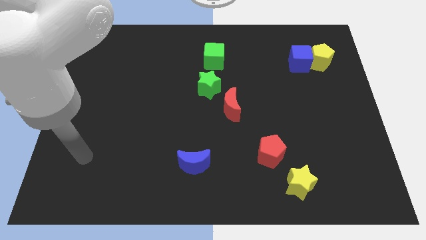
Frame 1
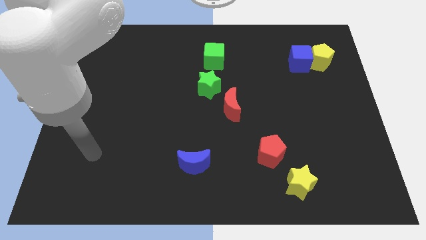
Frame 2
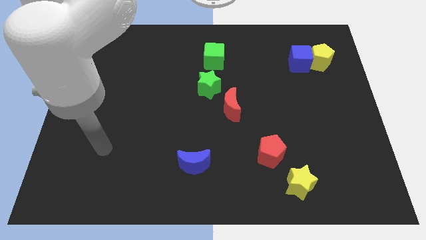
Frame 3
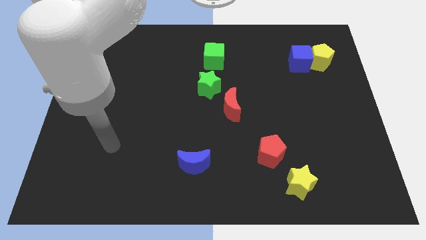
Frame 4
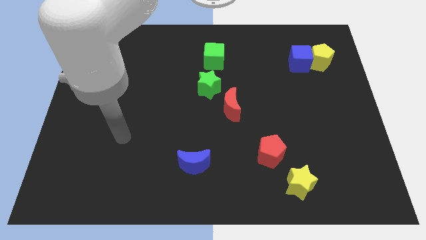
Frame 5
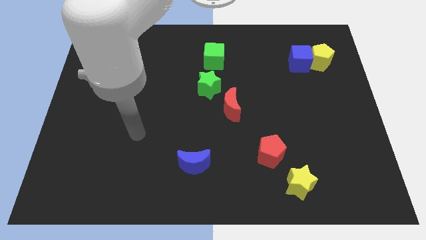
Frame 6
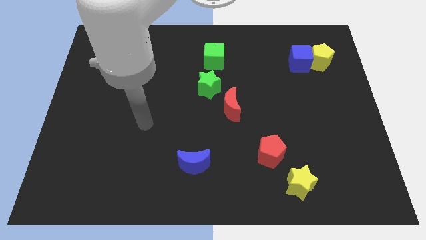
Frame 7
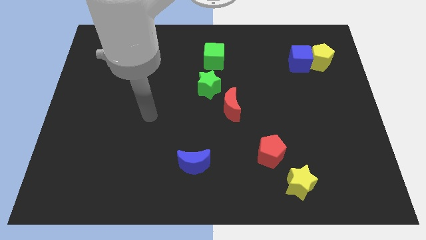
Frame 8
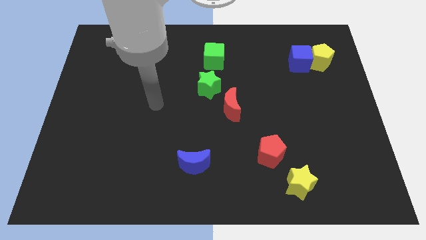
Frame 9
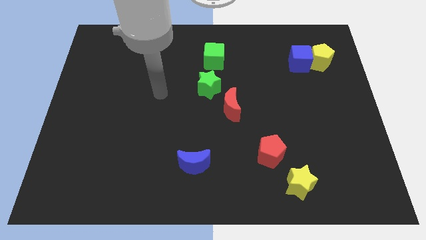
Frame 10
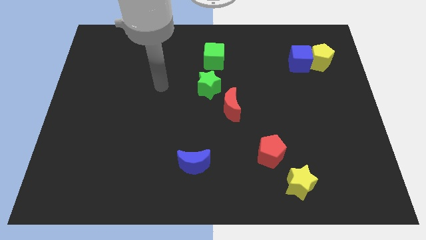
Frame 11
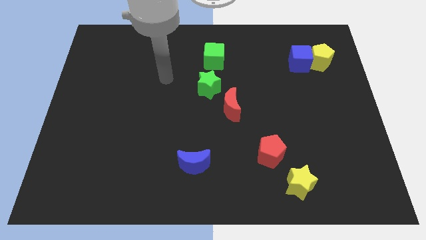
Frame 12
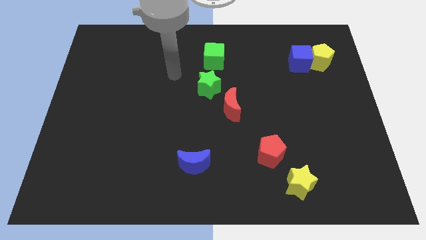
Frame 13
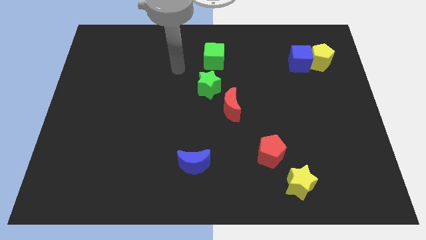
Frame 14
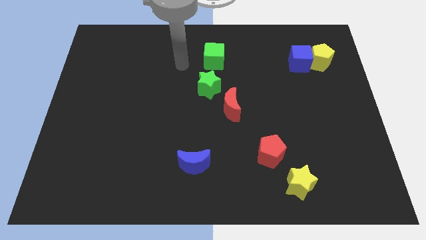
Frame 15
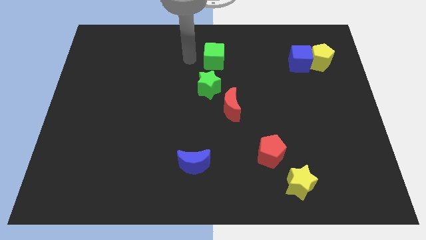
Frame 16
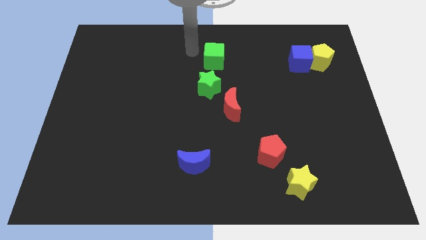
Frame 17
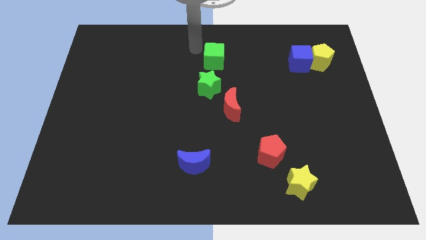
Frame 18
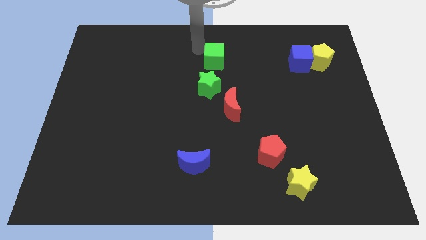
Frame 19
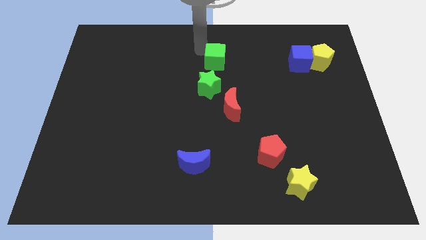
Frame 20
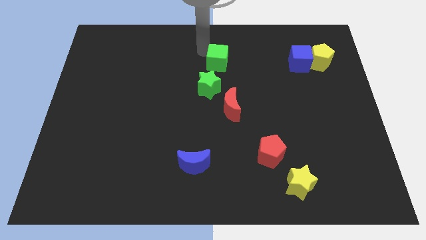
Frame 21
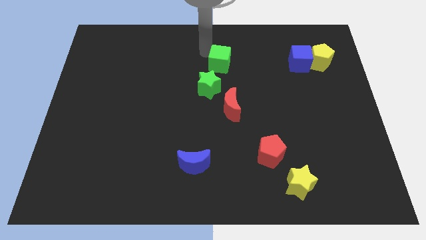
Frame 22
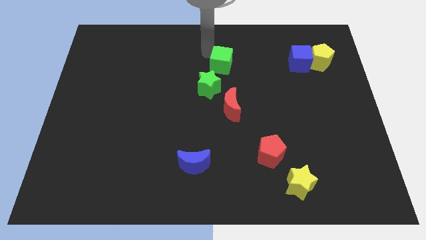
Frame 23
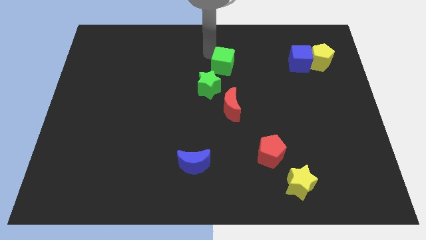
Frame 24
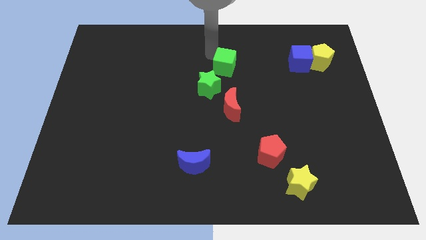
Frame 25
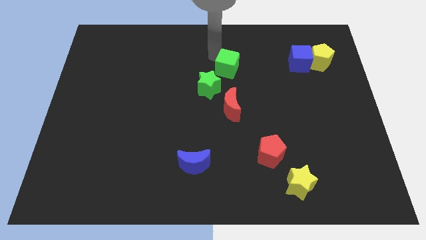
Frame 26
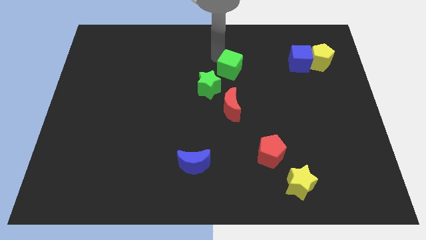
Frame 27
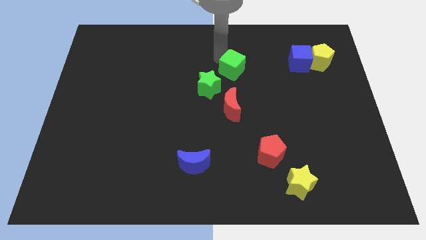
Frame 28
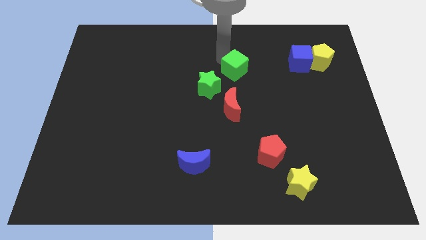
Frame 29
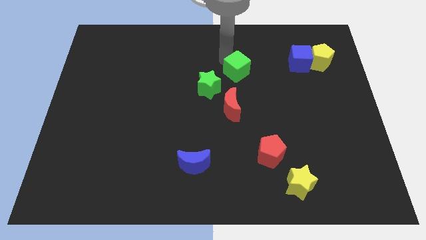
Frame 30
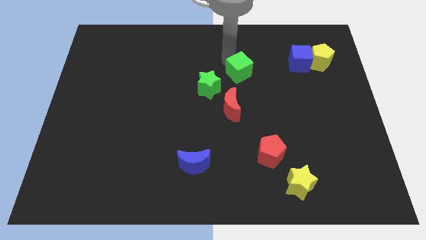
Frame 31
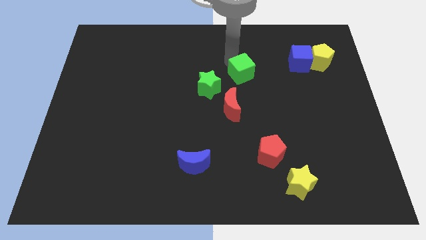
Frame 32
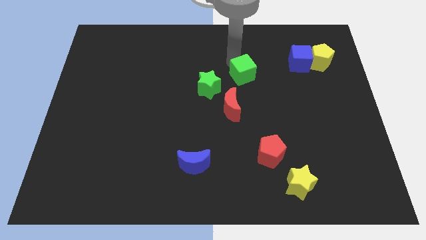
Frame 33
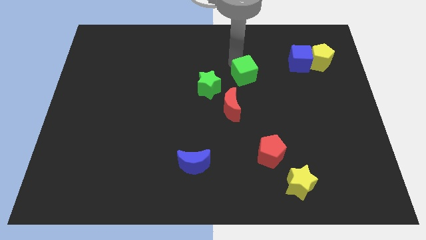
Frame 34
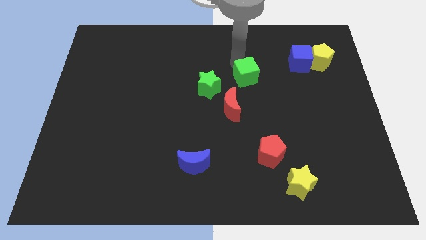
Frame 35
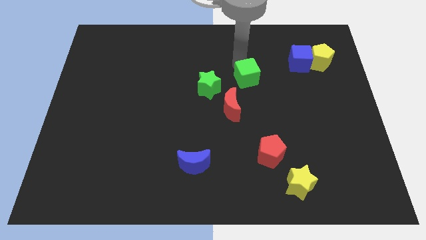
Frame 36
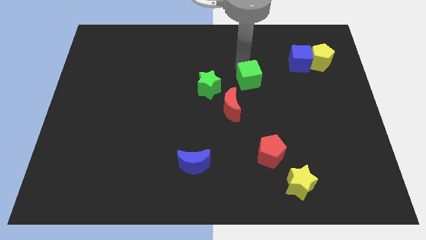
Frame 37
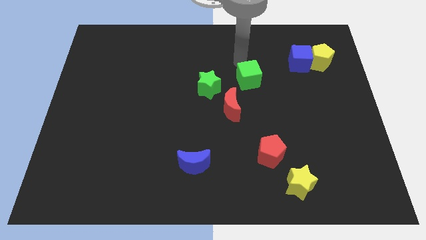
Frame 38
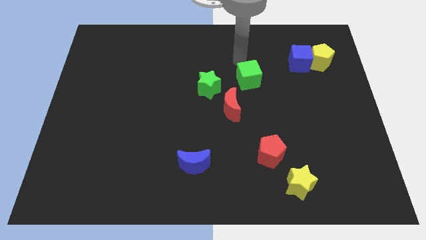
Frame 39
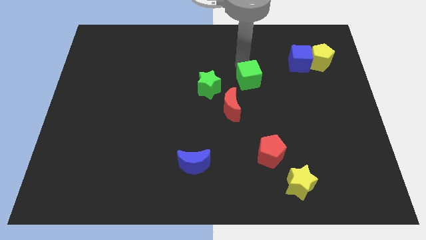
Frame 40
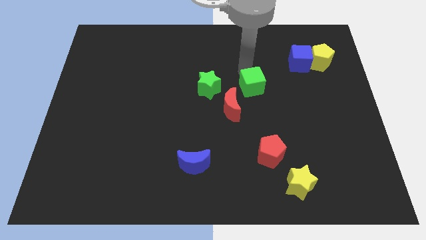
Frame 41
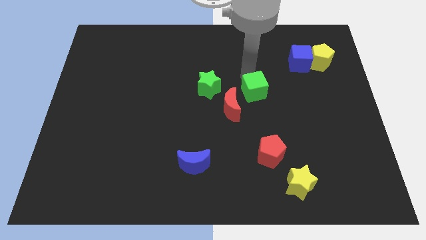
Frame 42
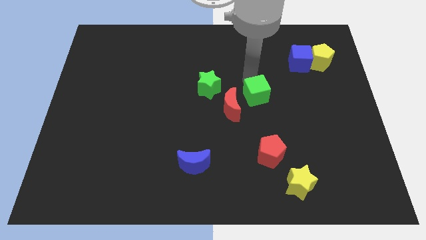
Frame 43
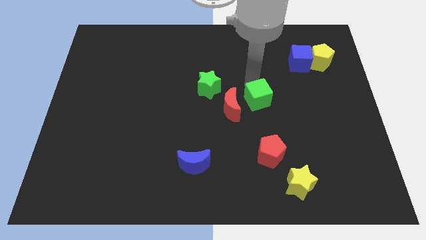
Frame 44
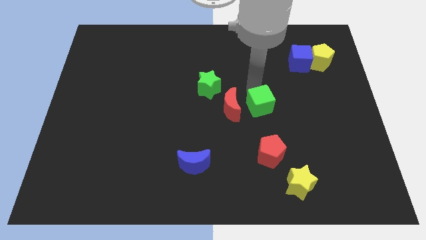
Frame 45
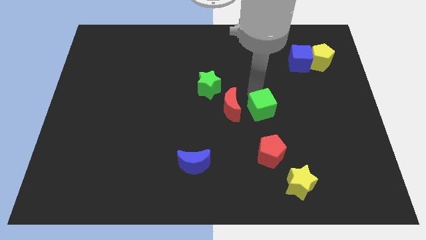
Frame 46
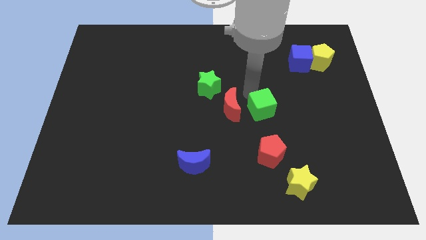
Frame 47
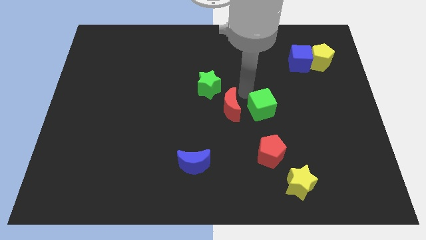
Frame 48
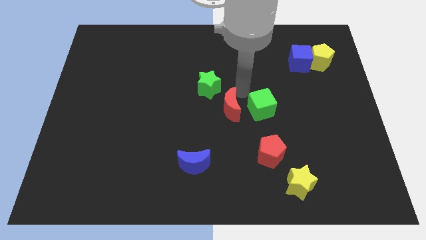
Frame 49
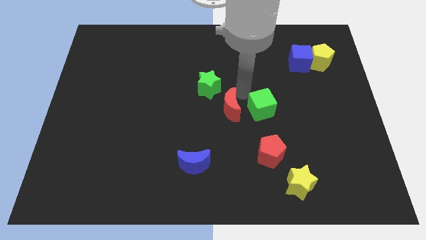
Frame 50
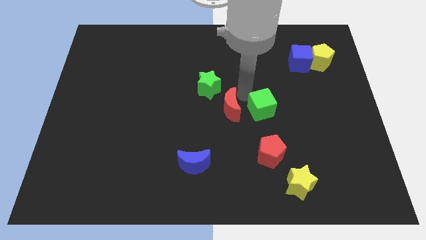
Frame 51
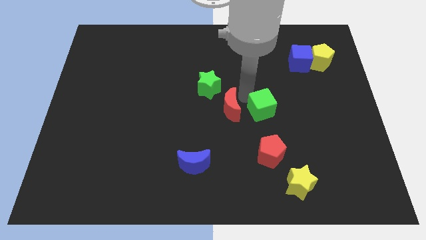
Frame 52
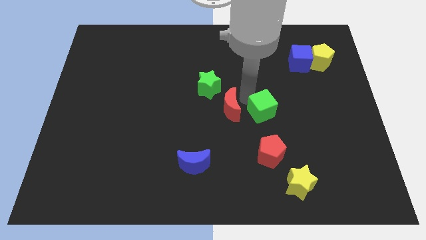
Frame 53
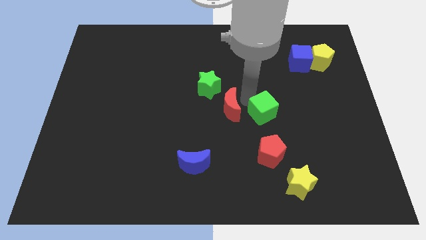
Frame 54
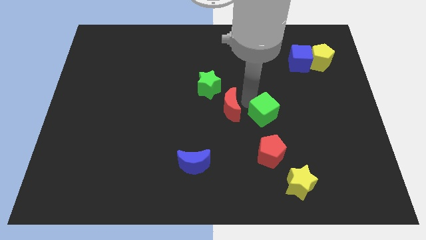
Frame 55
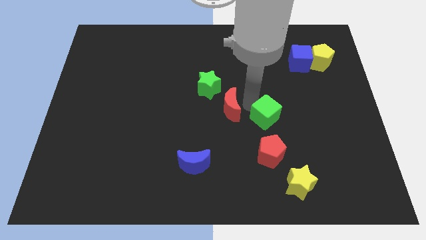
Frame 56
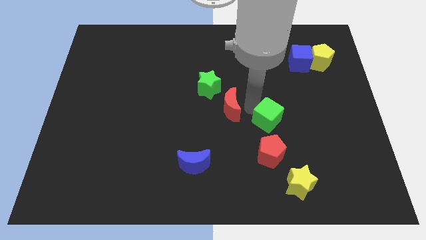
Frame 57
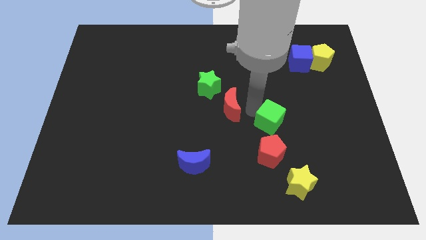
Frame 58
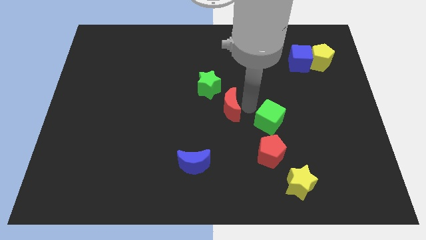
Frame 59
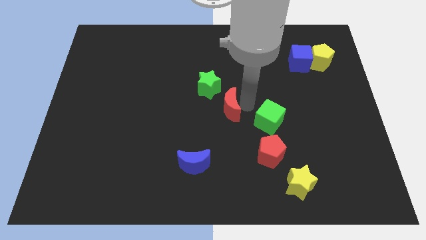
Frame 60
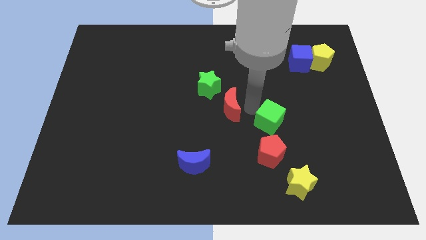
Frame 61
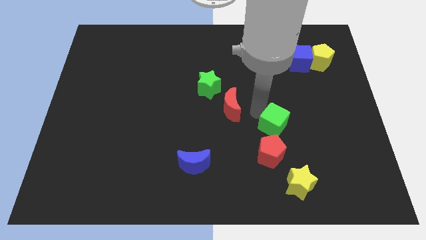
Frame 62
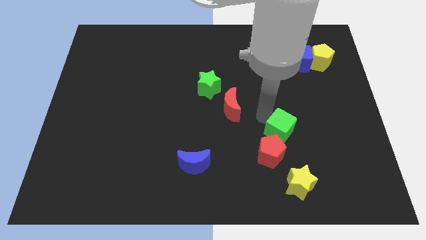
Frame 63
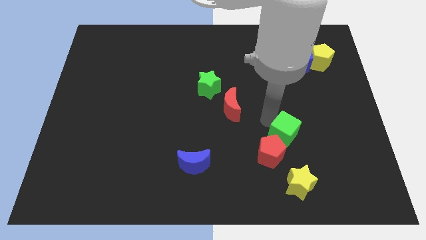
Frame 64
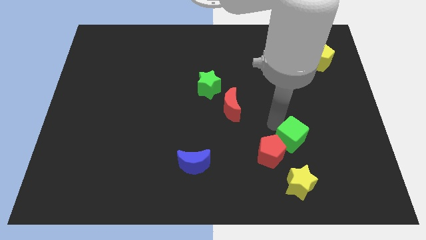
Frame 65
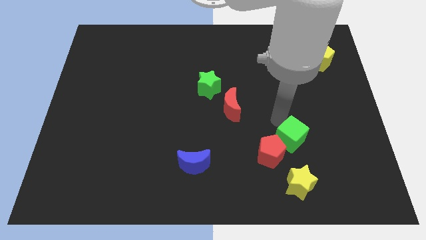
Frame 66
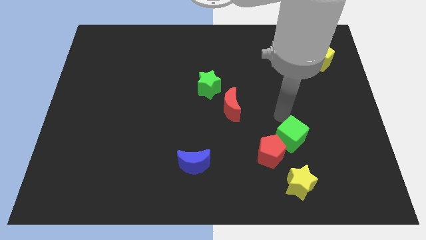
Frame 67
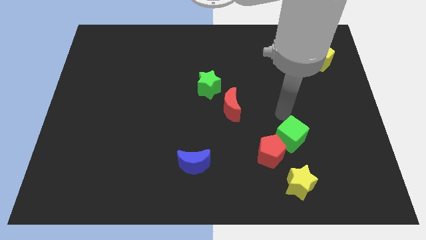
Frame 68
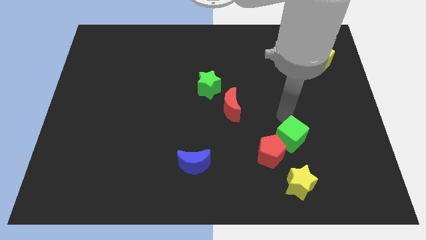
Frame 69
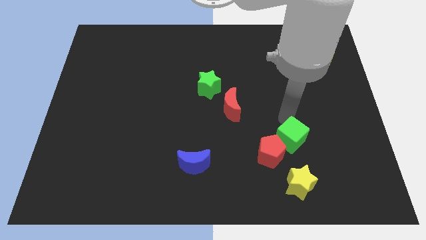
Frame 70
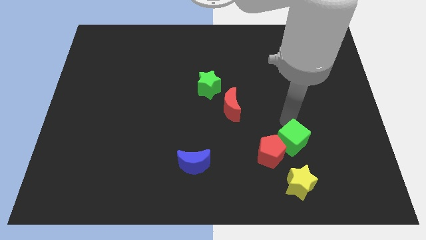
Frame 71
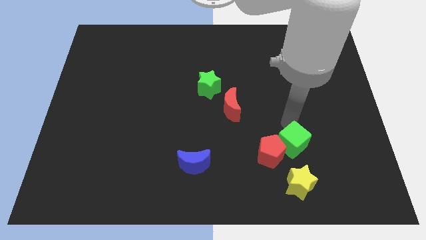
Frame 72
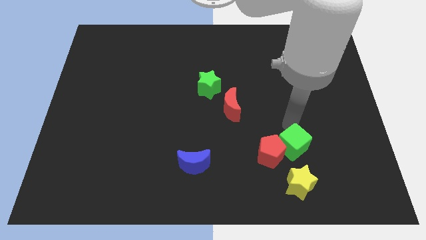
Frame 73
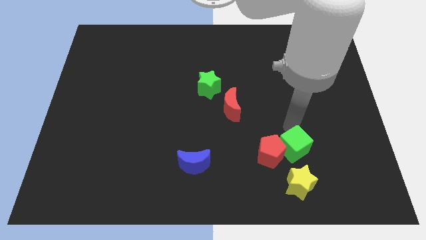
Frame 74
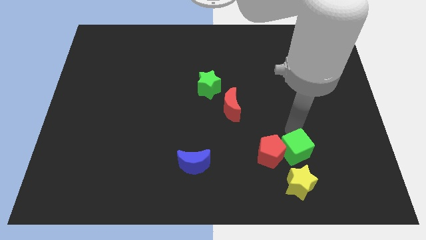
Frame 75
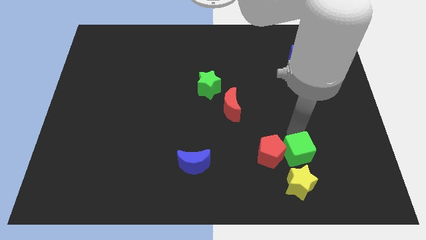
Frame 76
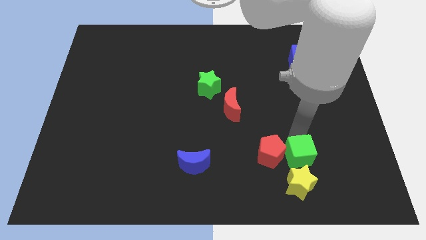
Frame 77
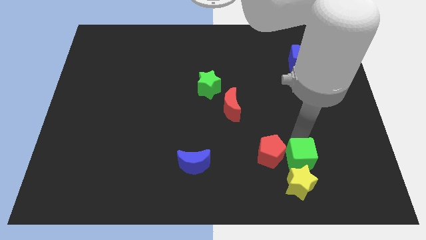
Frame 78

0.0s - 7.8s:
push the green cube towards the yellow star

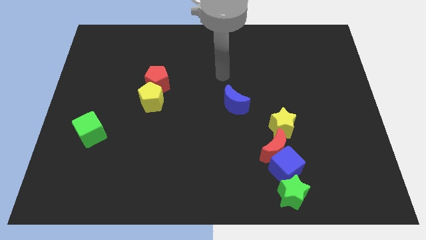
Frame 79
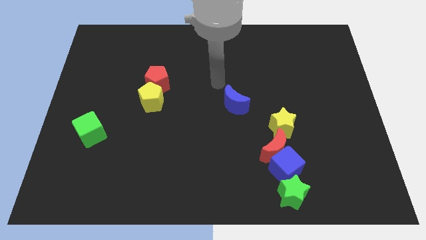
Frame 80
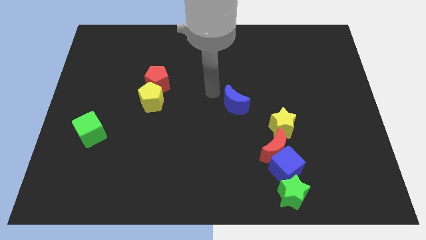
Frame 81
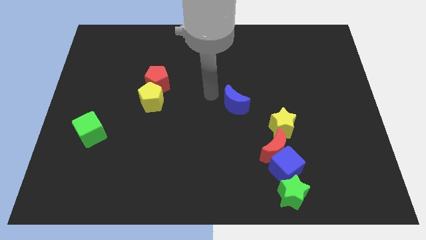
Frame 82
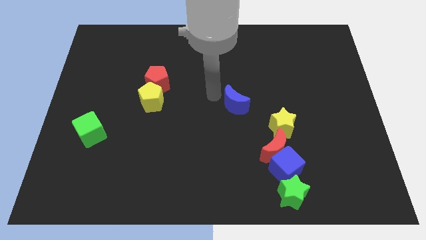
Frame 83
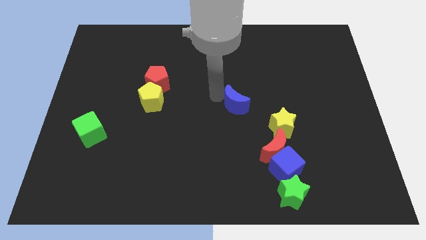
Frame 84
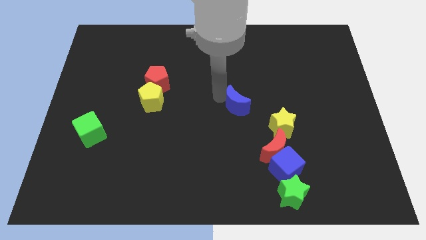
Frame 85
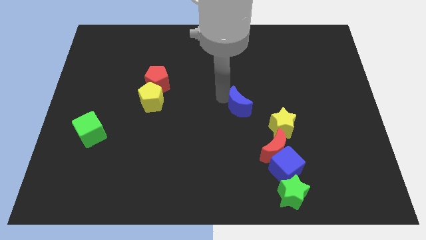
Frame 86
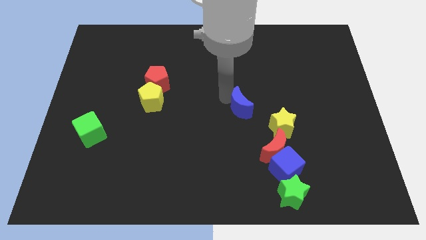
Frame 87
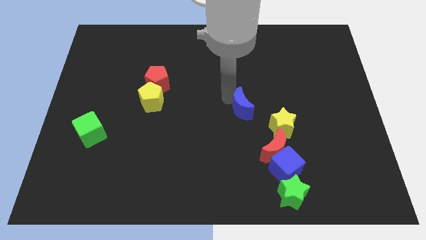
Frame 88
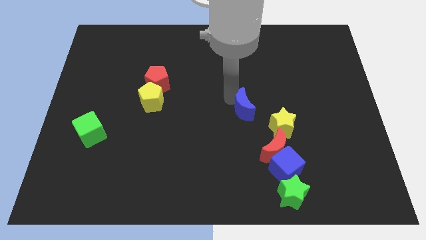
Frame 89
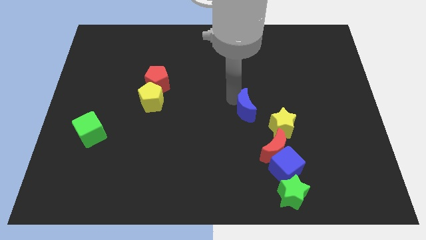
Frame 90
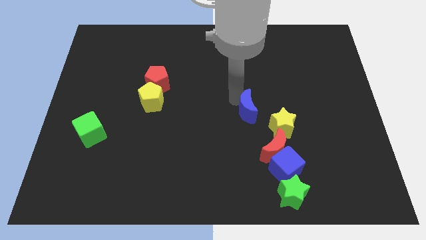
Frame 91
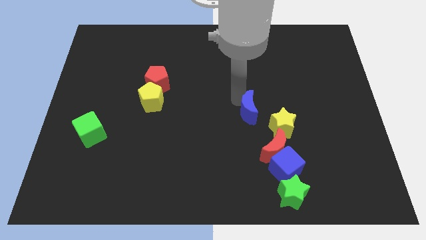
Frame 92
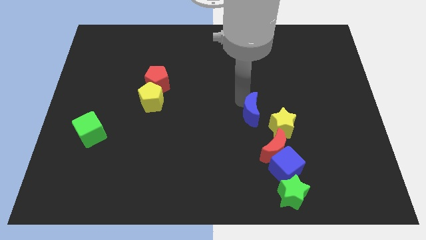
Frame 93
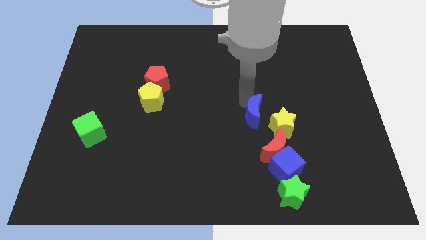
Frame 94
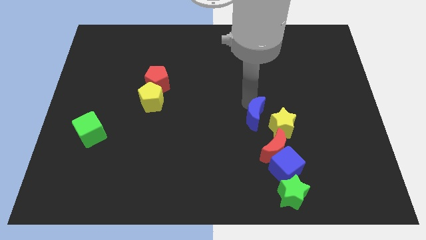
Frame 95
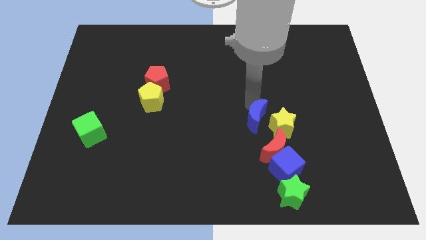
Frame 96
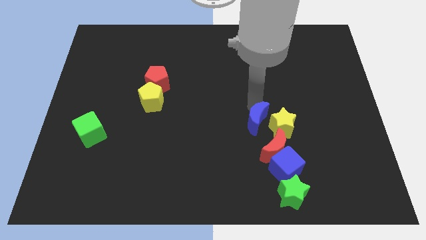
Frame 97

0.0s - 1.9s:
put the blue moon close to the yellow star
